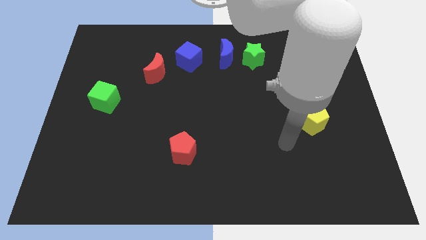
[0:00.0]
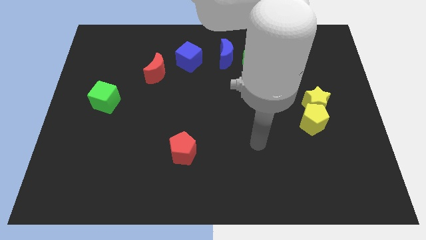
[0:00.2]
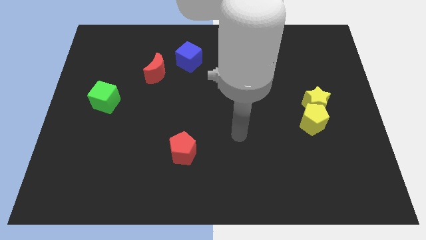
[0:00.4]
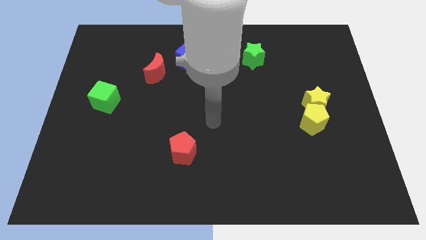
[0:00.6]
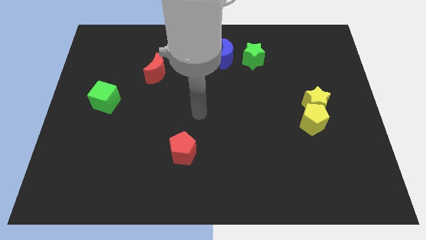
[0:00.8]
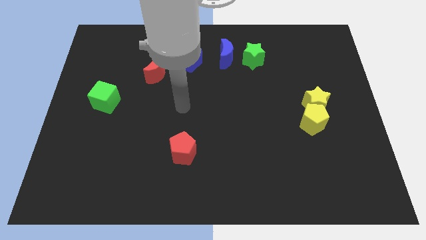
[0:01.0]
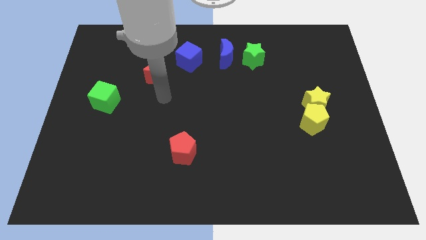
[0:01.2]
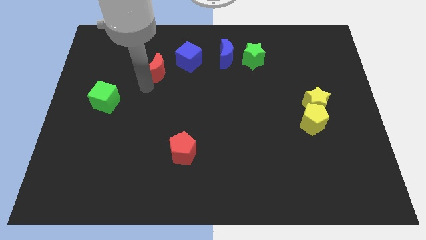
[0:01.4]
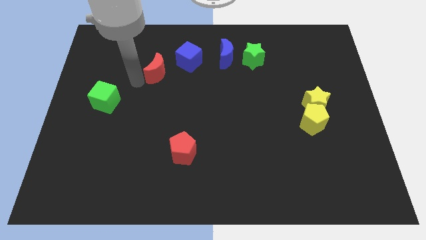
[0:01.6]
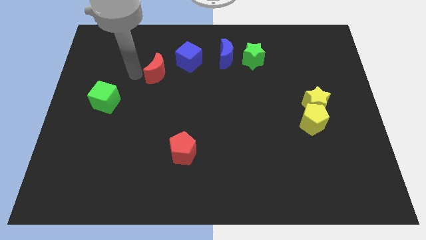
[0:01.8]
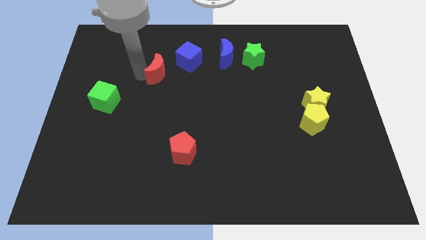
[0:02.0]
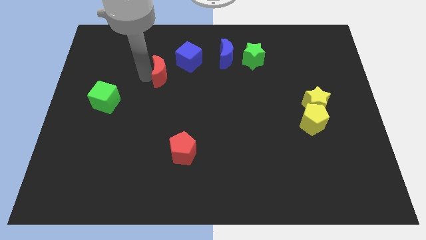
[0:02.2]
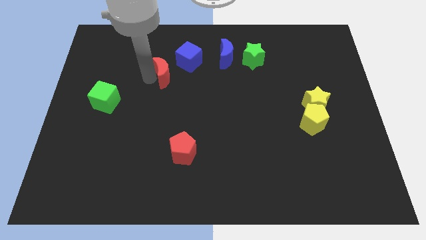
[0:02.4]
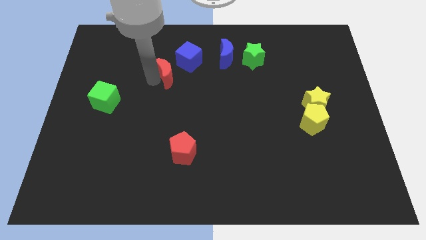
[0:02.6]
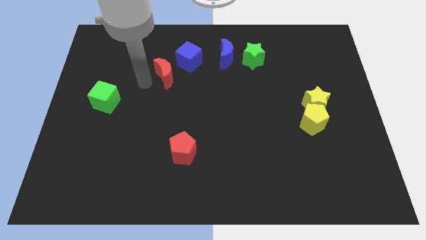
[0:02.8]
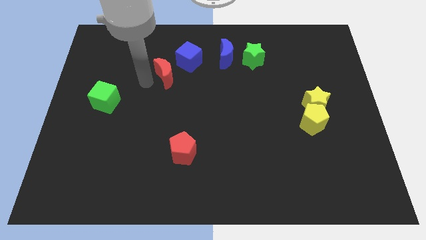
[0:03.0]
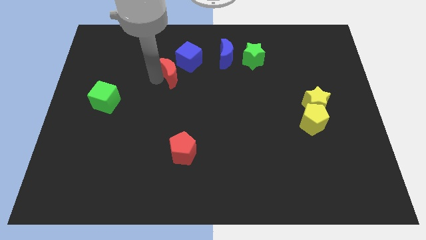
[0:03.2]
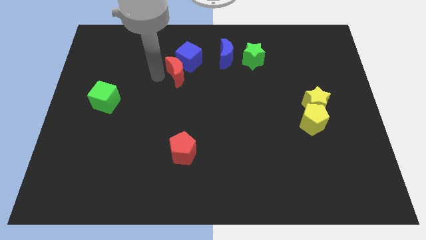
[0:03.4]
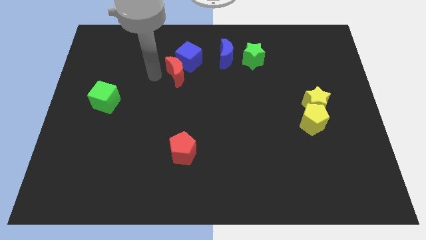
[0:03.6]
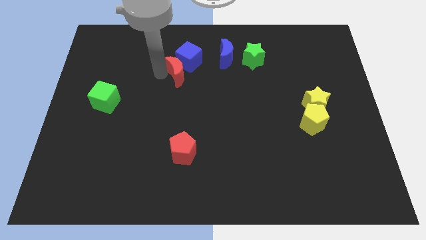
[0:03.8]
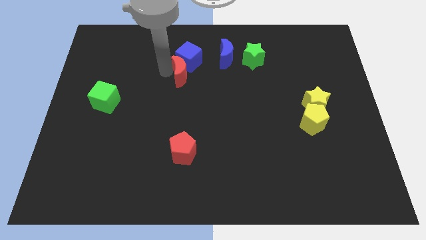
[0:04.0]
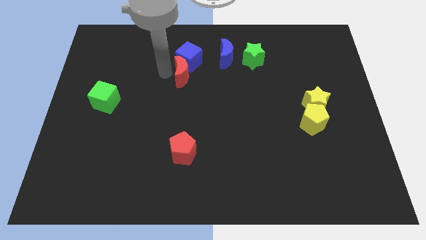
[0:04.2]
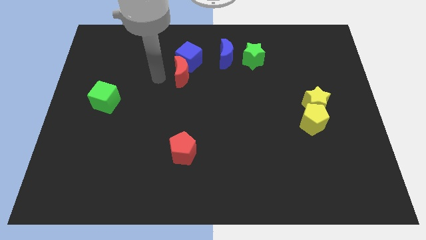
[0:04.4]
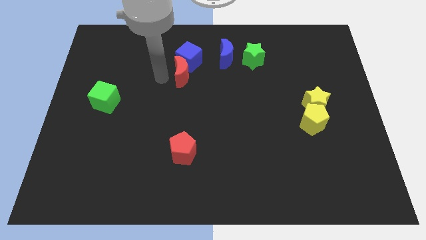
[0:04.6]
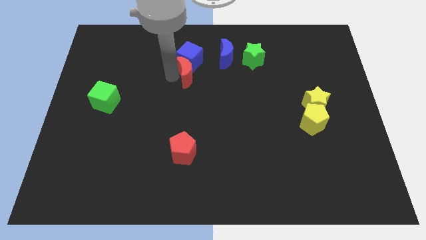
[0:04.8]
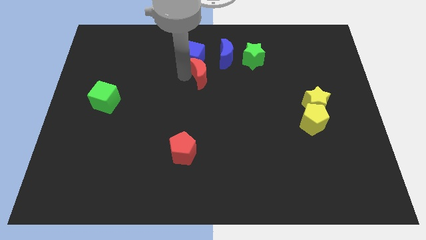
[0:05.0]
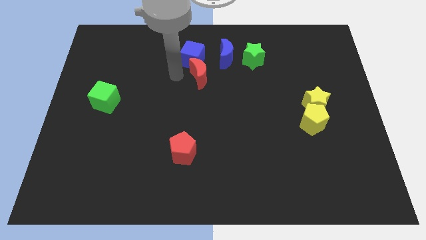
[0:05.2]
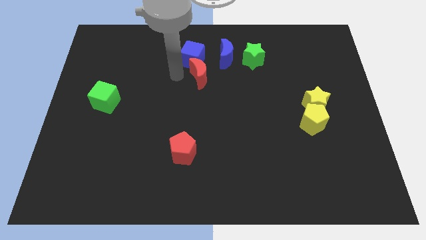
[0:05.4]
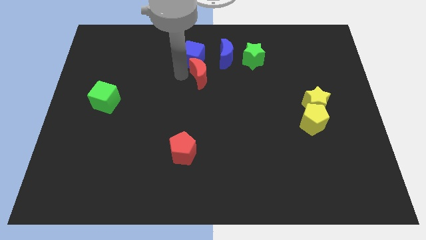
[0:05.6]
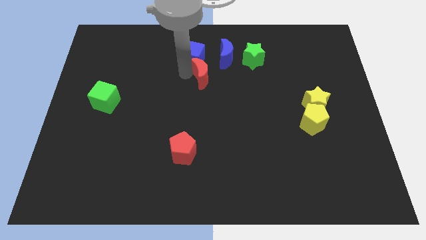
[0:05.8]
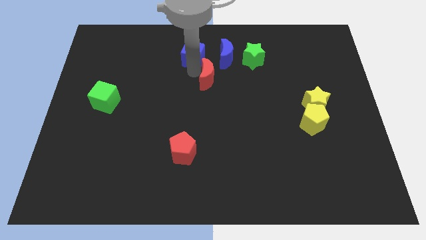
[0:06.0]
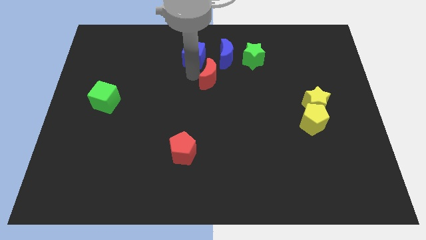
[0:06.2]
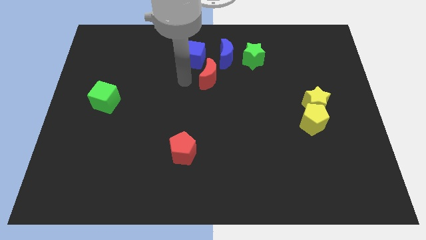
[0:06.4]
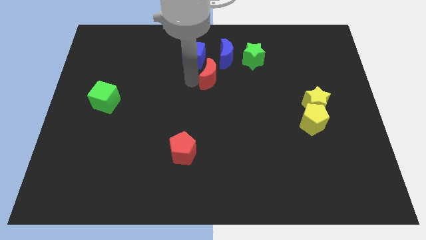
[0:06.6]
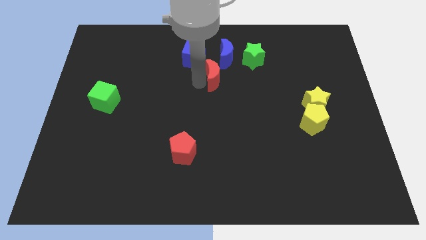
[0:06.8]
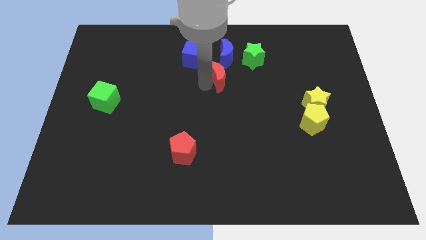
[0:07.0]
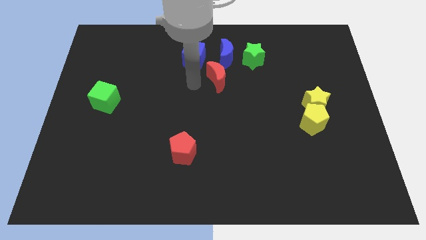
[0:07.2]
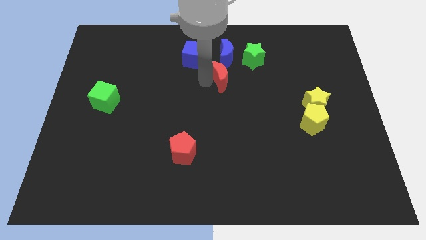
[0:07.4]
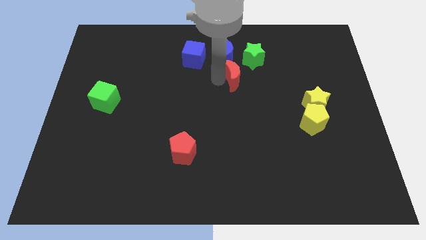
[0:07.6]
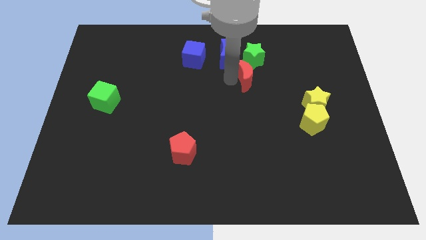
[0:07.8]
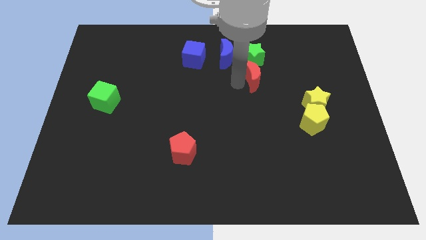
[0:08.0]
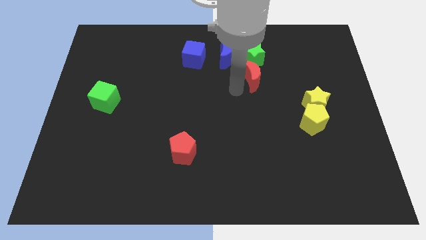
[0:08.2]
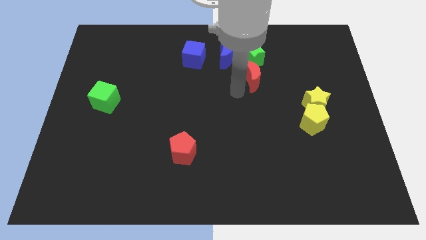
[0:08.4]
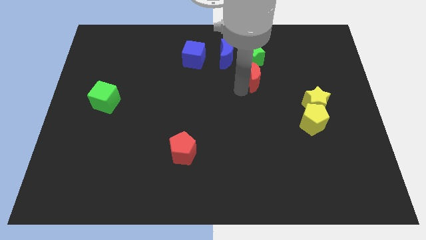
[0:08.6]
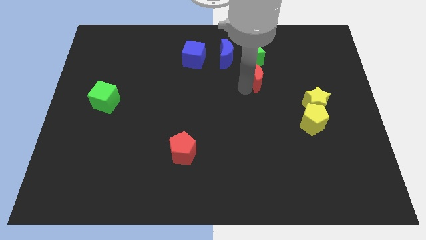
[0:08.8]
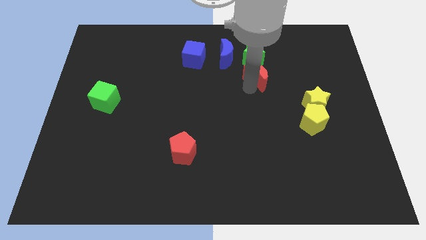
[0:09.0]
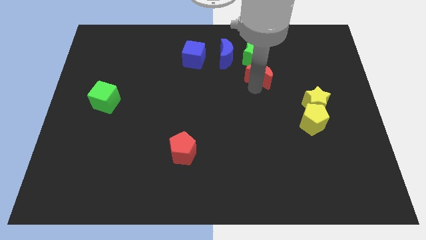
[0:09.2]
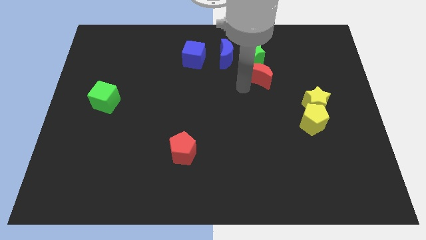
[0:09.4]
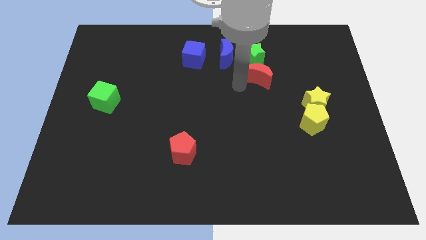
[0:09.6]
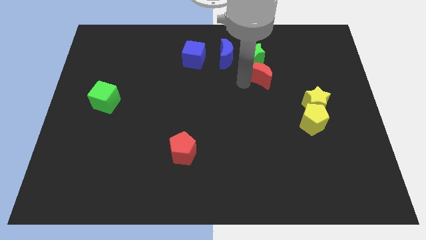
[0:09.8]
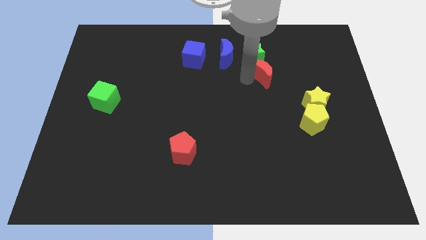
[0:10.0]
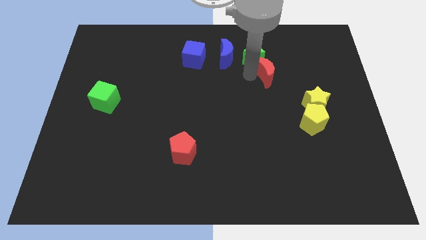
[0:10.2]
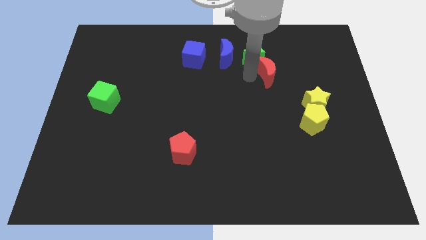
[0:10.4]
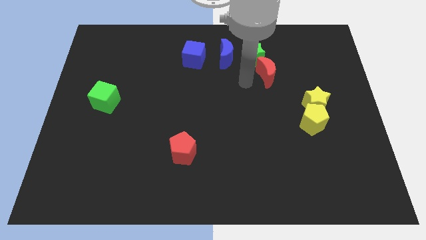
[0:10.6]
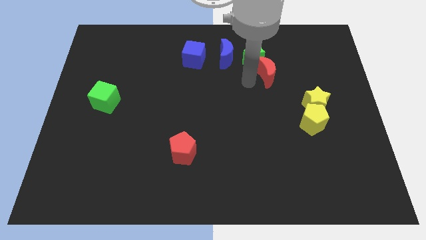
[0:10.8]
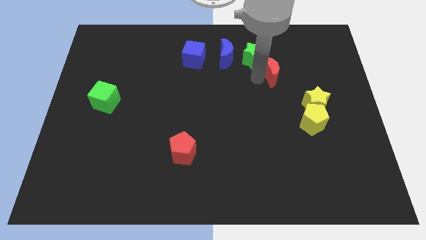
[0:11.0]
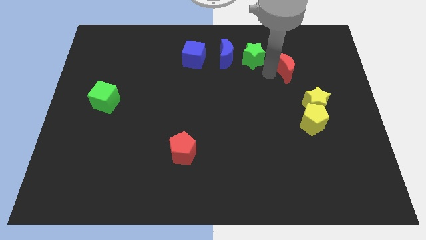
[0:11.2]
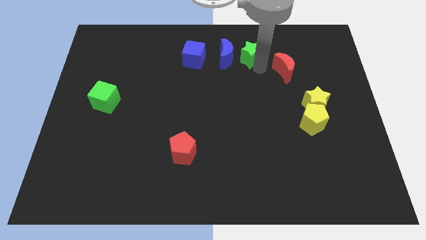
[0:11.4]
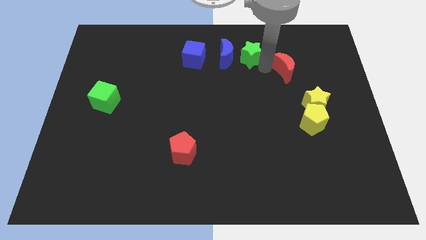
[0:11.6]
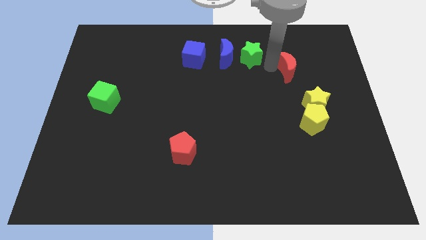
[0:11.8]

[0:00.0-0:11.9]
put the red moon above the yellow star

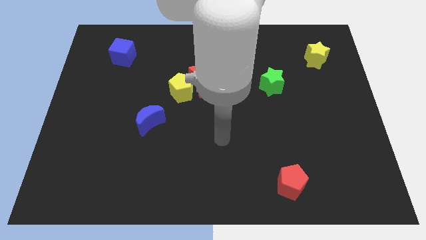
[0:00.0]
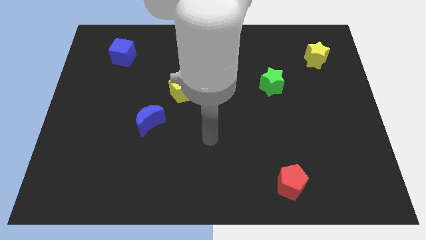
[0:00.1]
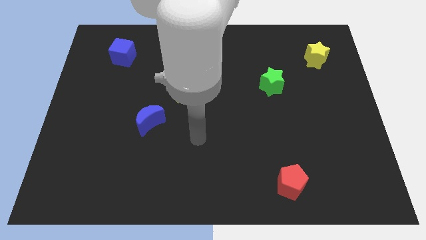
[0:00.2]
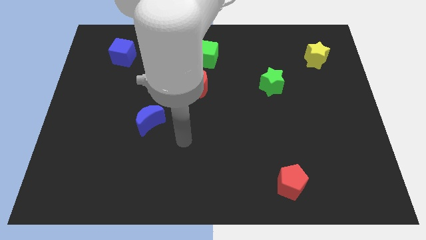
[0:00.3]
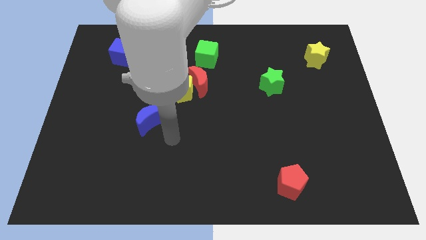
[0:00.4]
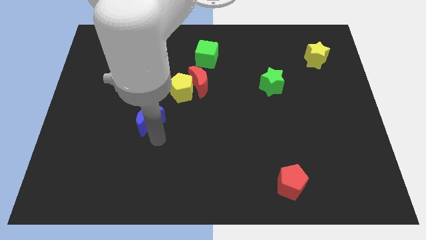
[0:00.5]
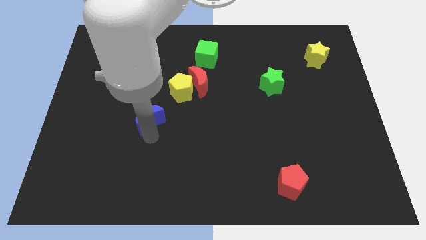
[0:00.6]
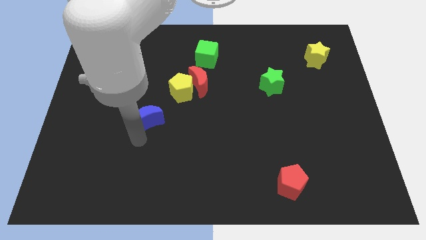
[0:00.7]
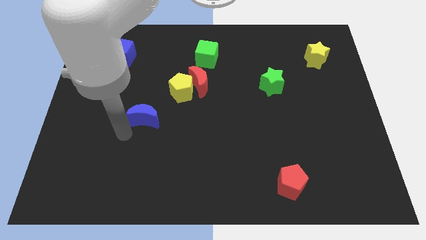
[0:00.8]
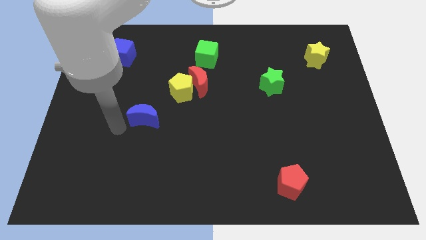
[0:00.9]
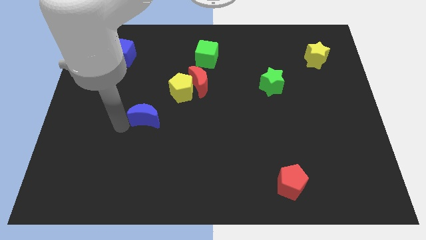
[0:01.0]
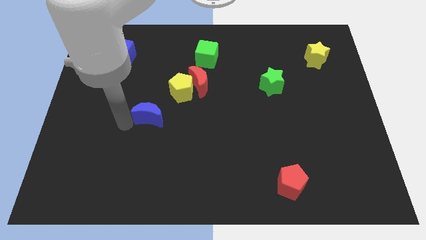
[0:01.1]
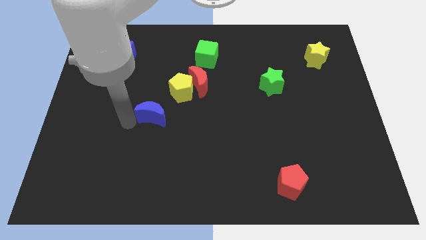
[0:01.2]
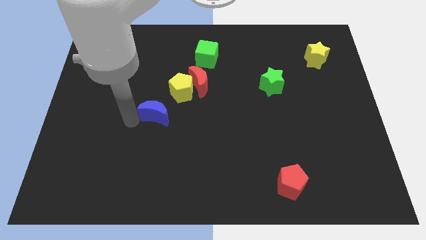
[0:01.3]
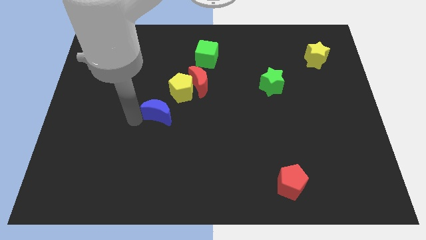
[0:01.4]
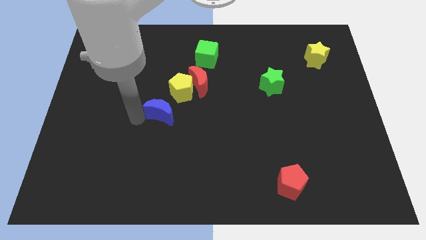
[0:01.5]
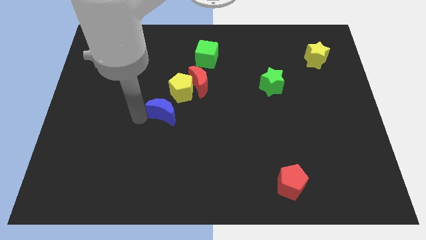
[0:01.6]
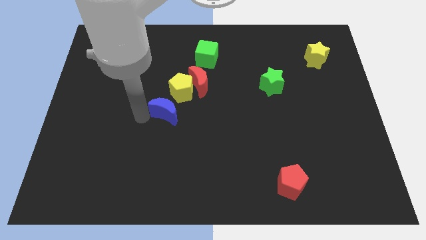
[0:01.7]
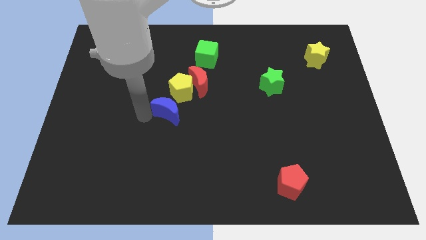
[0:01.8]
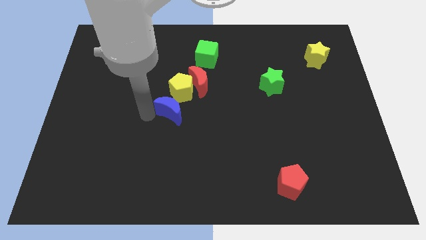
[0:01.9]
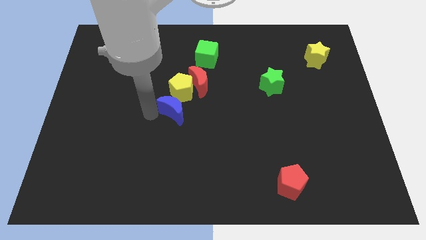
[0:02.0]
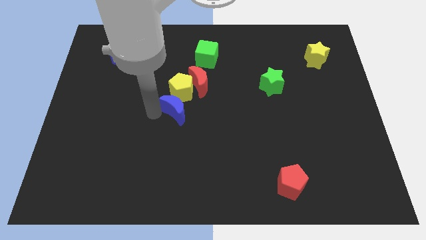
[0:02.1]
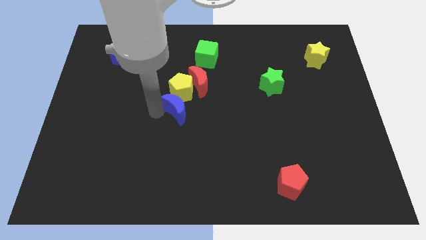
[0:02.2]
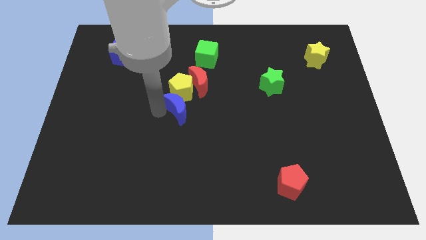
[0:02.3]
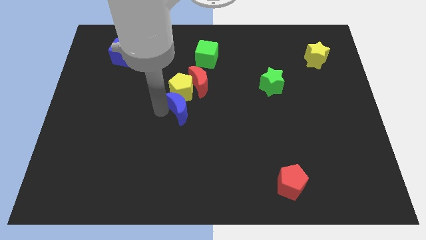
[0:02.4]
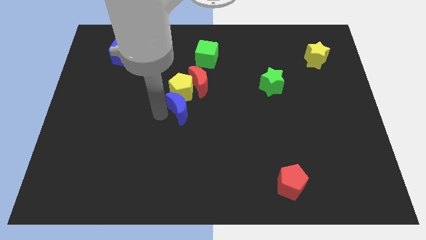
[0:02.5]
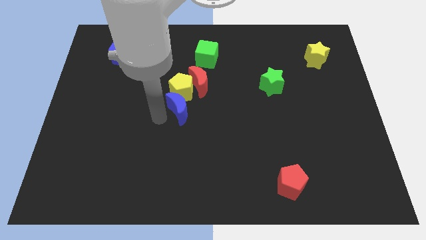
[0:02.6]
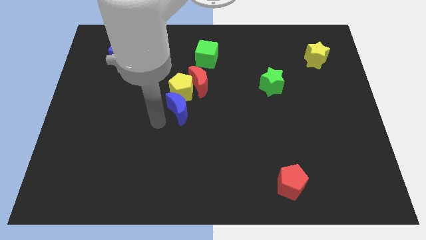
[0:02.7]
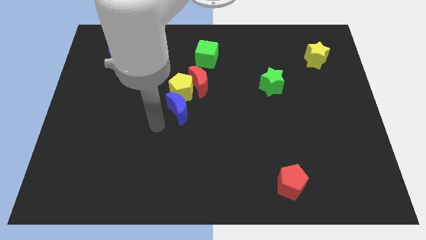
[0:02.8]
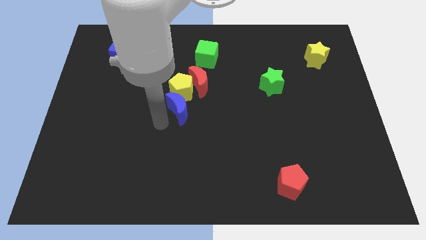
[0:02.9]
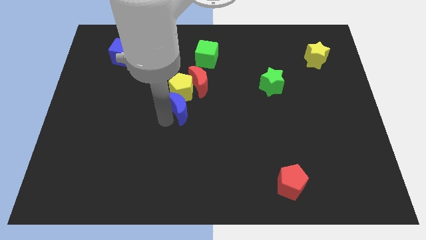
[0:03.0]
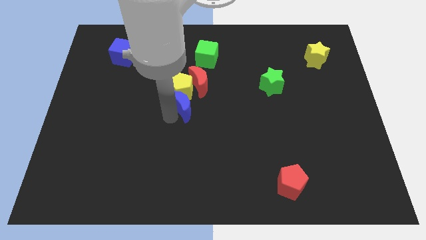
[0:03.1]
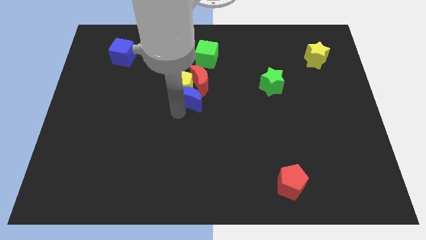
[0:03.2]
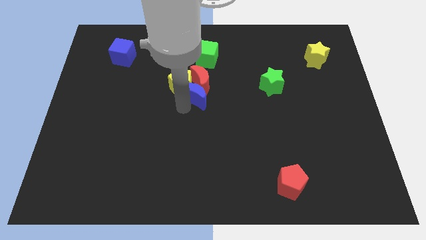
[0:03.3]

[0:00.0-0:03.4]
put the blue moon to the bottom side of the green cube
